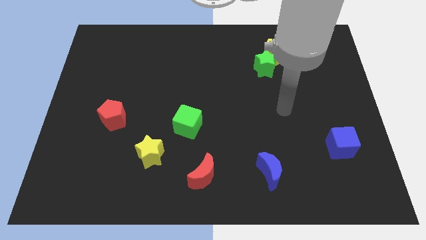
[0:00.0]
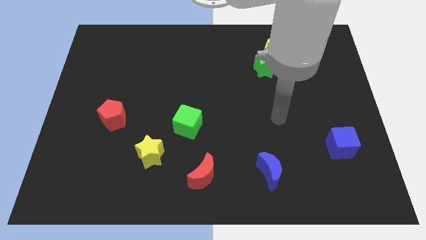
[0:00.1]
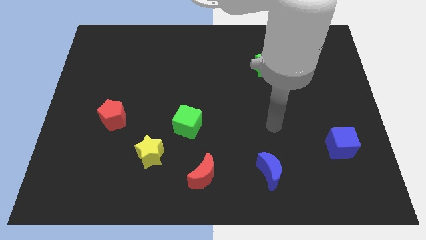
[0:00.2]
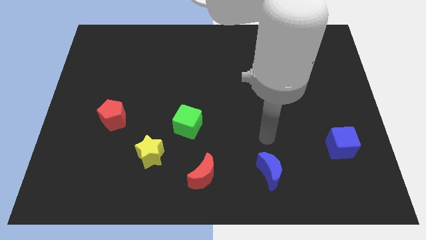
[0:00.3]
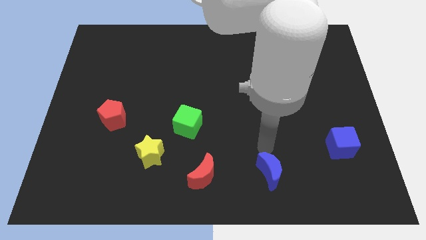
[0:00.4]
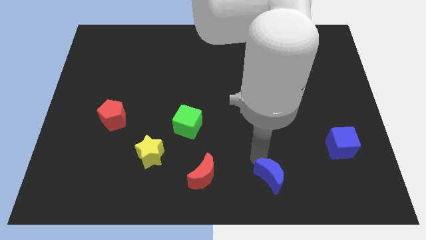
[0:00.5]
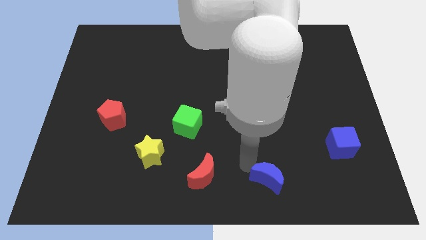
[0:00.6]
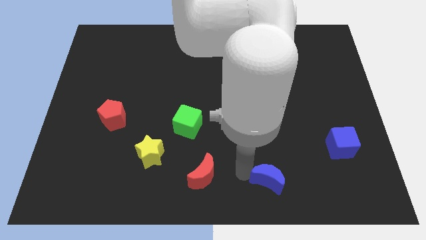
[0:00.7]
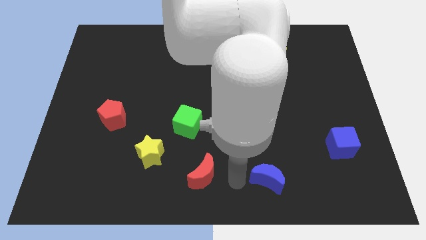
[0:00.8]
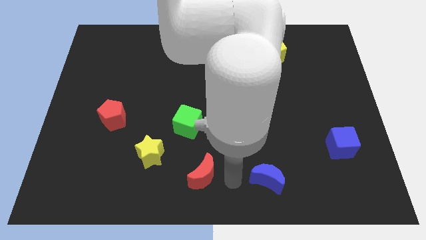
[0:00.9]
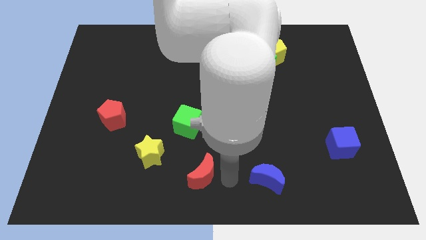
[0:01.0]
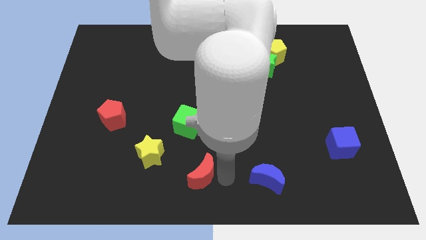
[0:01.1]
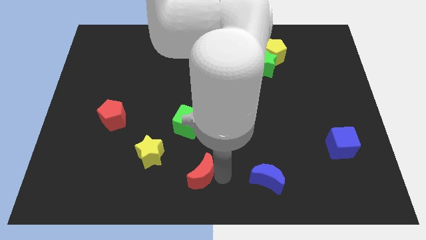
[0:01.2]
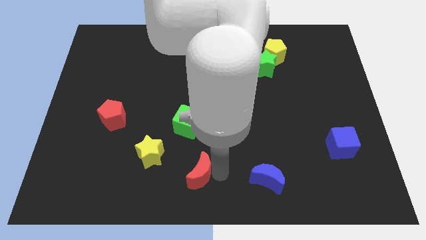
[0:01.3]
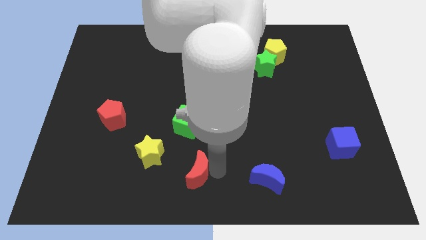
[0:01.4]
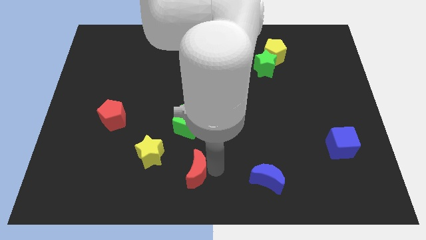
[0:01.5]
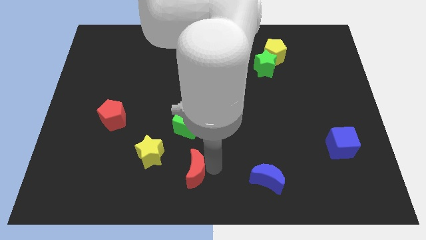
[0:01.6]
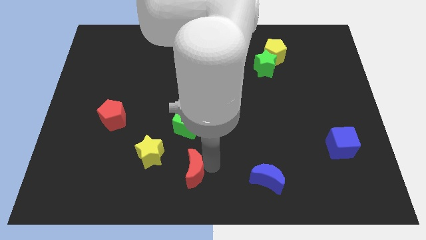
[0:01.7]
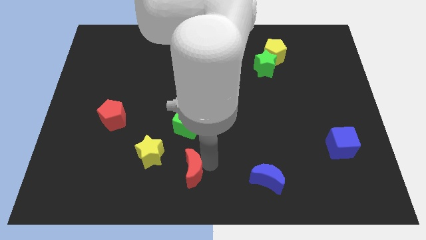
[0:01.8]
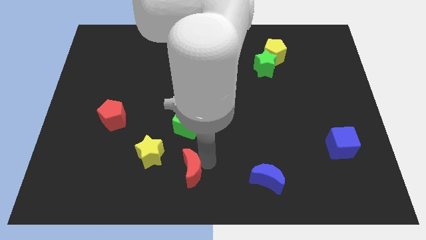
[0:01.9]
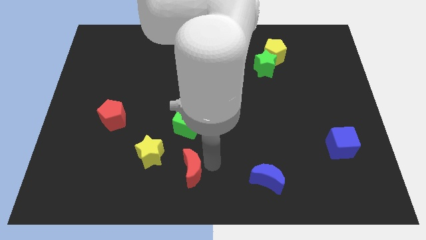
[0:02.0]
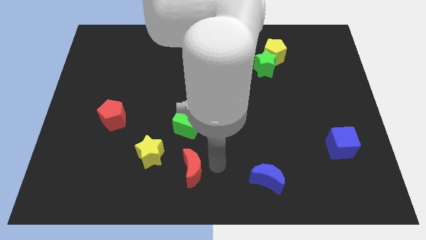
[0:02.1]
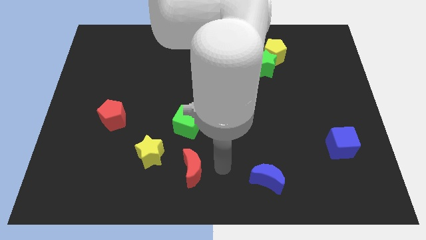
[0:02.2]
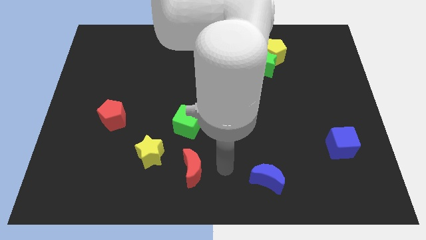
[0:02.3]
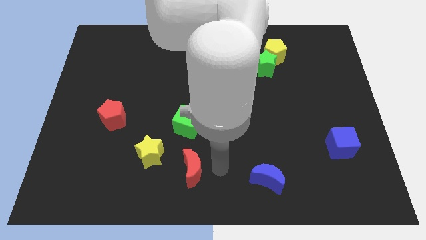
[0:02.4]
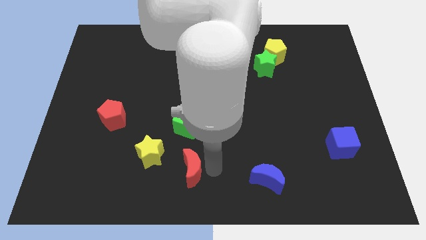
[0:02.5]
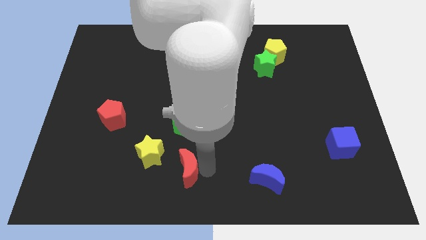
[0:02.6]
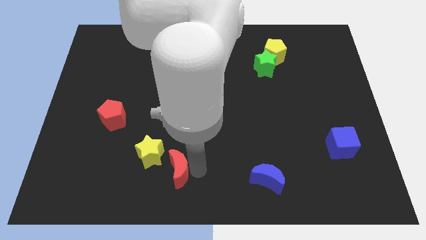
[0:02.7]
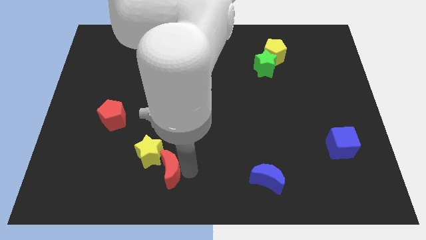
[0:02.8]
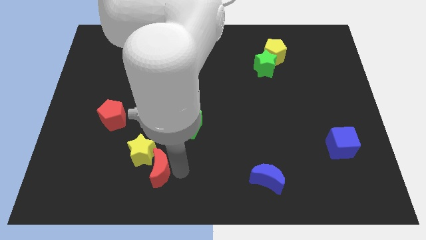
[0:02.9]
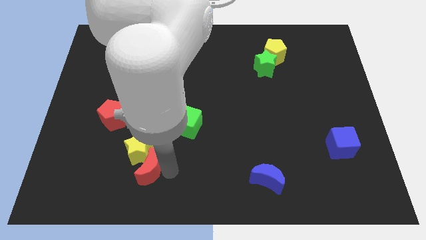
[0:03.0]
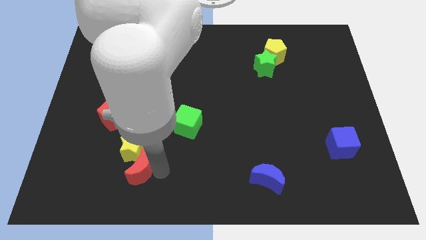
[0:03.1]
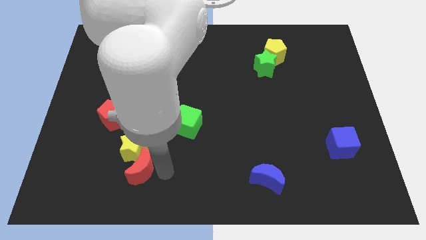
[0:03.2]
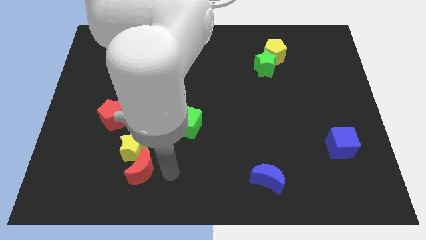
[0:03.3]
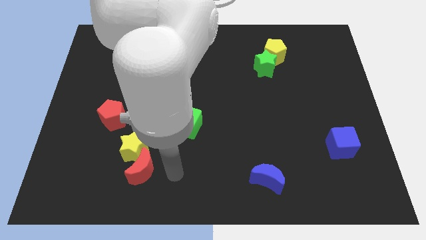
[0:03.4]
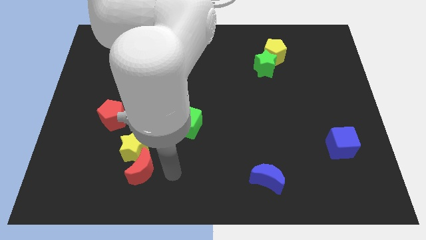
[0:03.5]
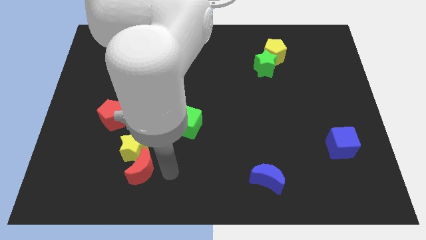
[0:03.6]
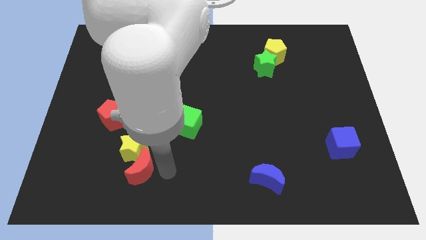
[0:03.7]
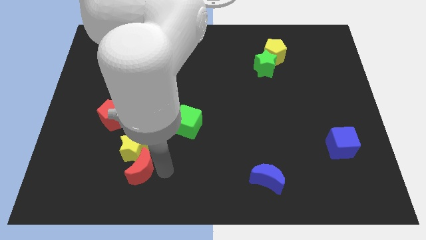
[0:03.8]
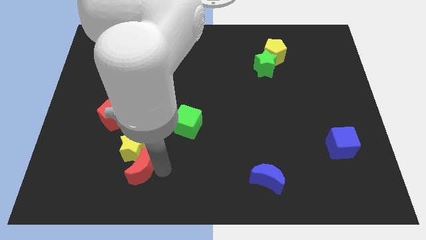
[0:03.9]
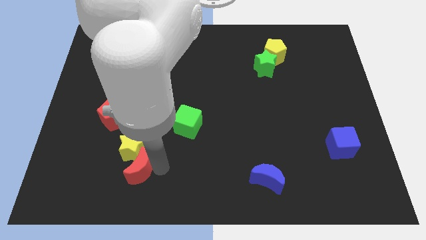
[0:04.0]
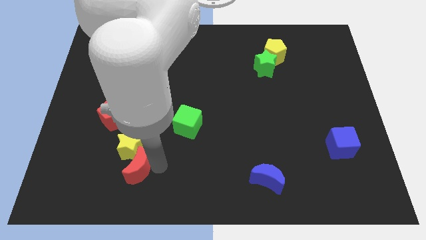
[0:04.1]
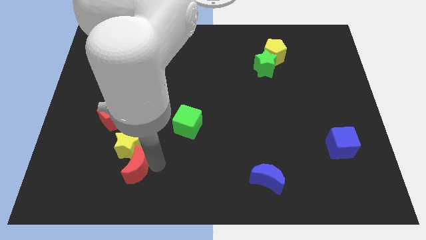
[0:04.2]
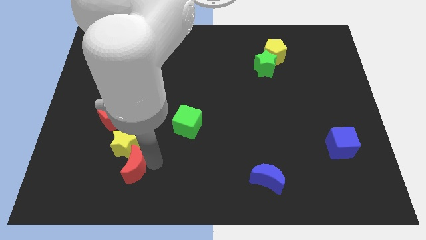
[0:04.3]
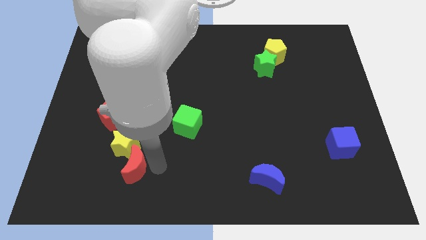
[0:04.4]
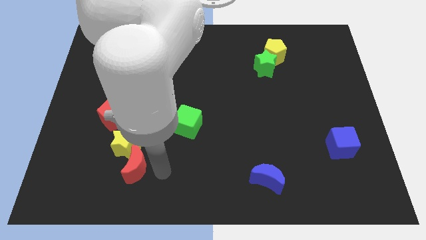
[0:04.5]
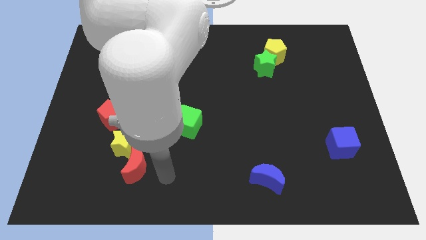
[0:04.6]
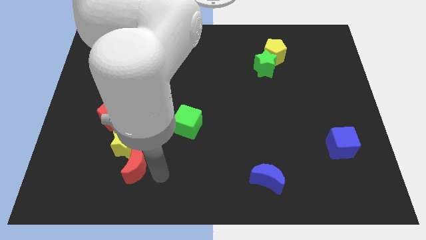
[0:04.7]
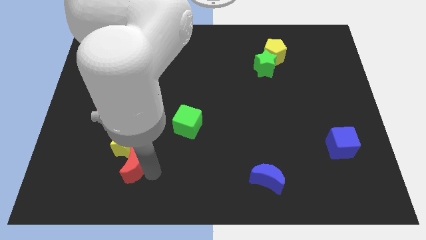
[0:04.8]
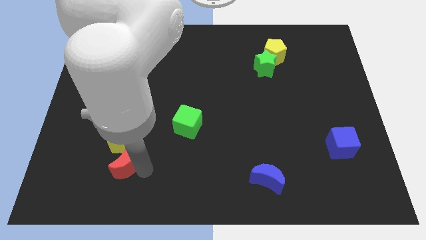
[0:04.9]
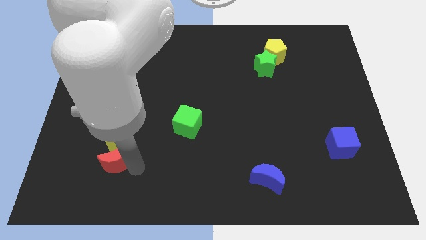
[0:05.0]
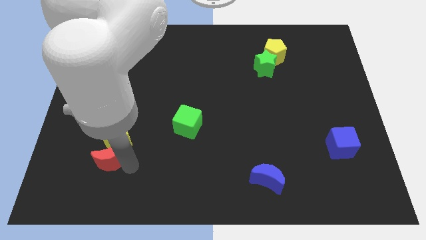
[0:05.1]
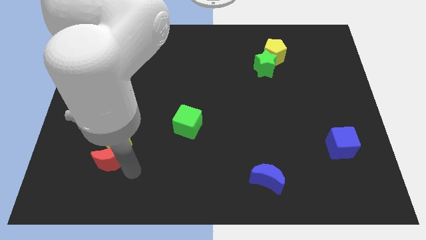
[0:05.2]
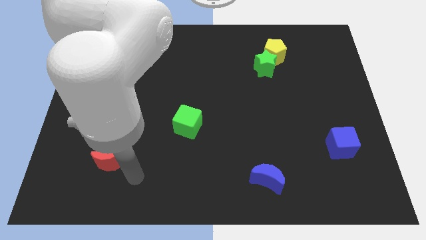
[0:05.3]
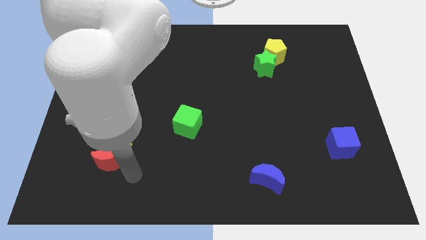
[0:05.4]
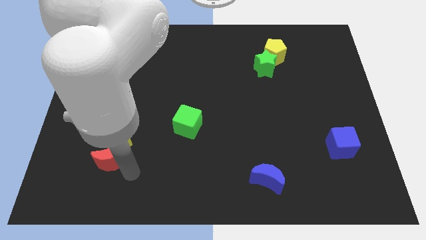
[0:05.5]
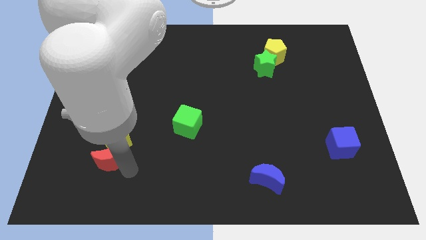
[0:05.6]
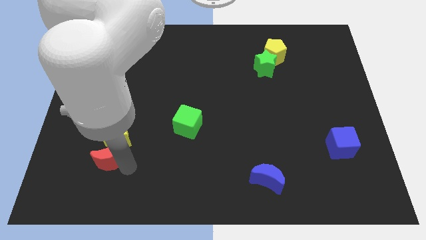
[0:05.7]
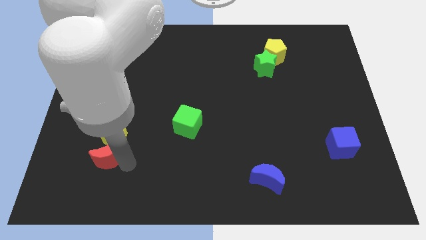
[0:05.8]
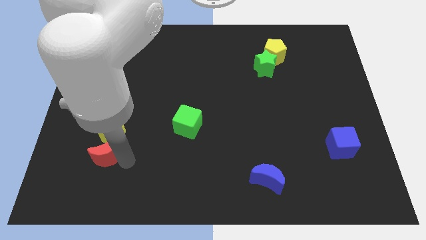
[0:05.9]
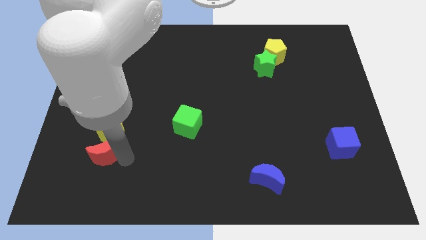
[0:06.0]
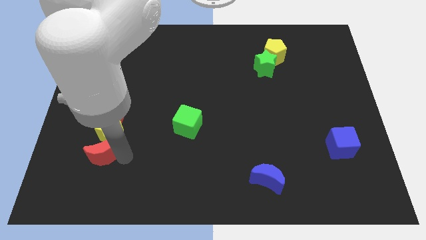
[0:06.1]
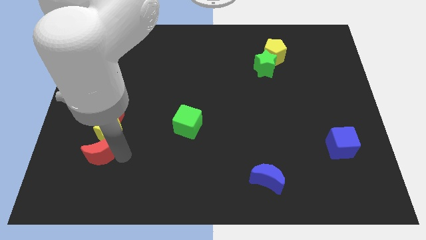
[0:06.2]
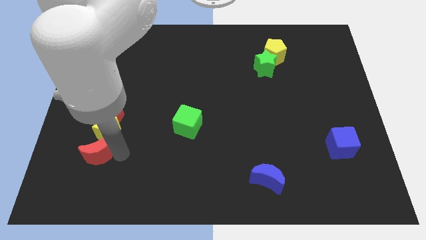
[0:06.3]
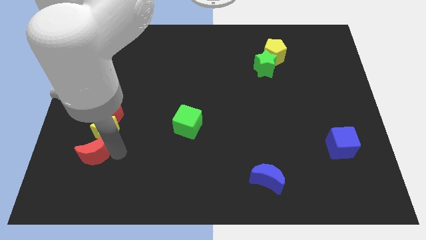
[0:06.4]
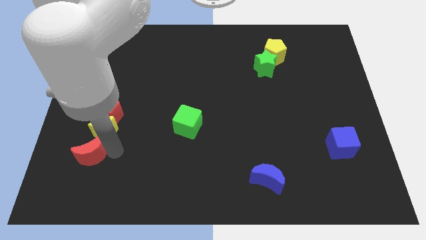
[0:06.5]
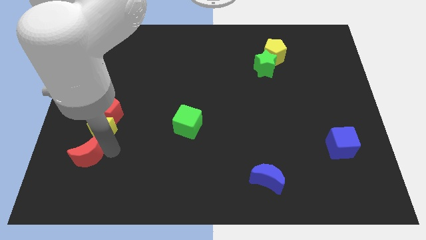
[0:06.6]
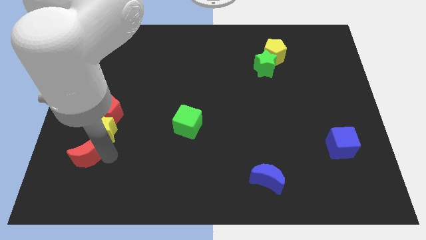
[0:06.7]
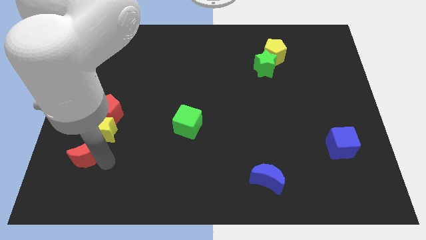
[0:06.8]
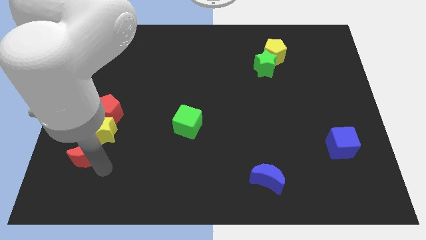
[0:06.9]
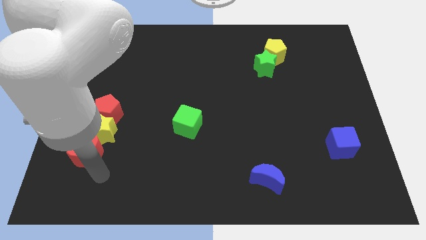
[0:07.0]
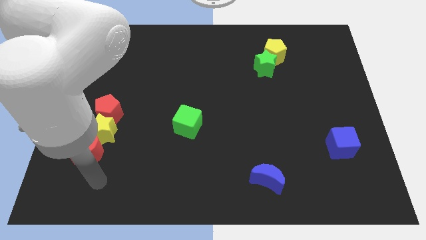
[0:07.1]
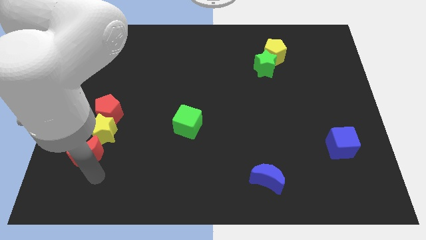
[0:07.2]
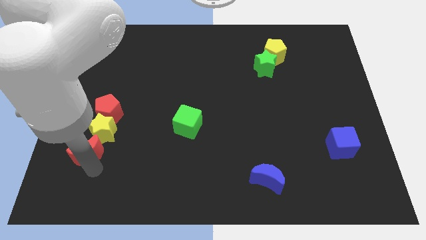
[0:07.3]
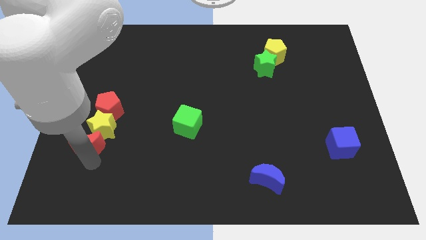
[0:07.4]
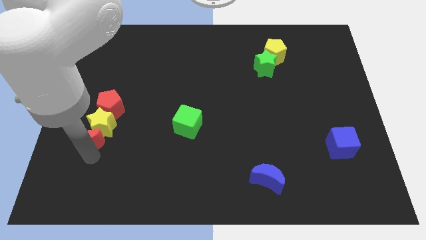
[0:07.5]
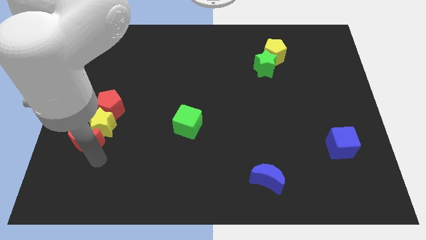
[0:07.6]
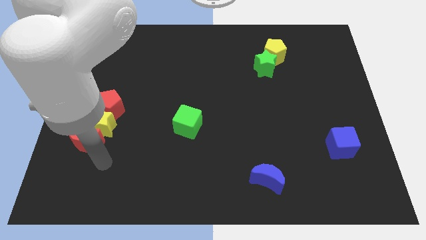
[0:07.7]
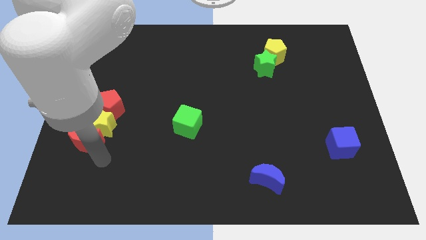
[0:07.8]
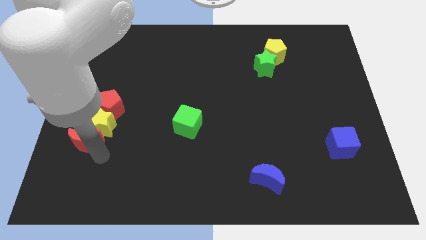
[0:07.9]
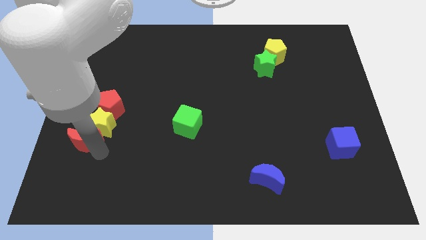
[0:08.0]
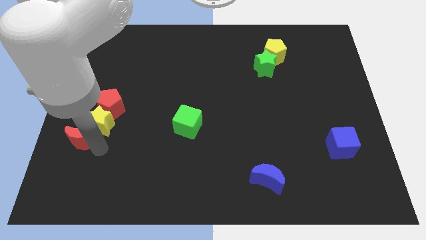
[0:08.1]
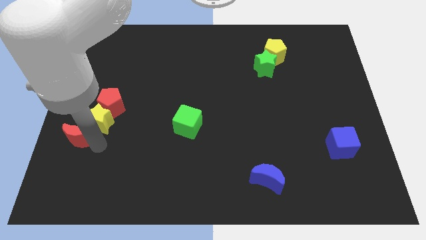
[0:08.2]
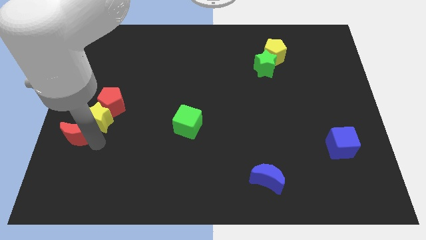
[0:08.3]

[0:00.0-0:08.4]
move the red moon to the center left
